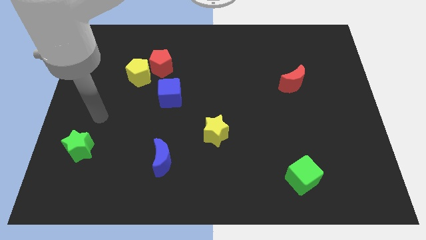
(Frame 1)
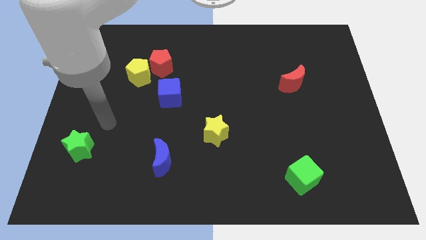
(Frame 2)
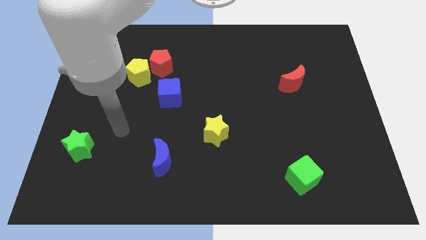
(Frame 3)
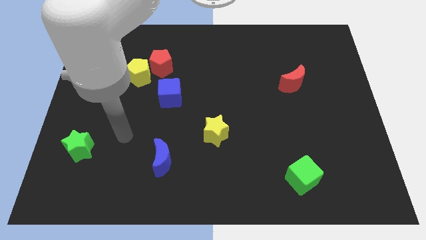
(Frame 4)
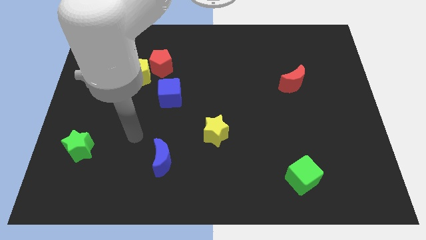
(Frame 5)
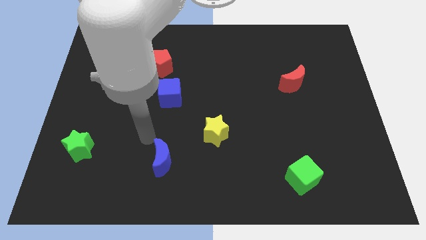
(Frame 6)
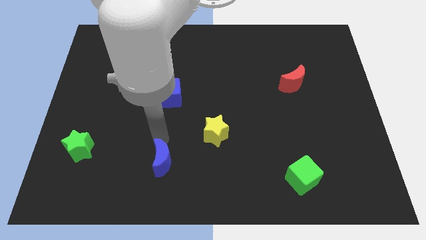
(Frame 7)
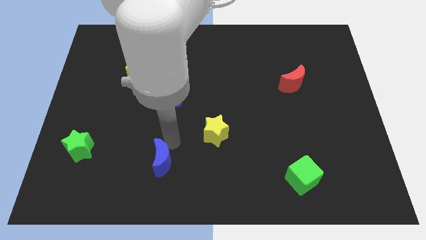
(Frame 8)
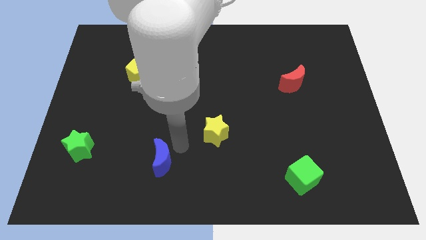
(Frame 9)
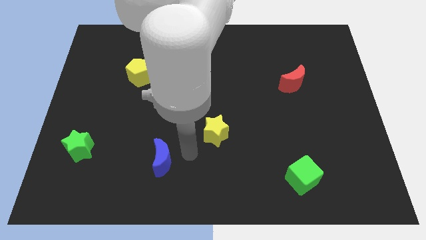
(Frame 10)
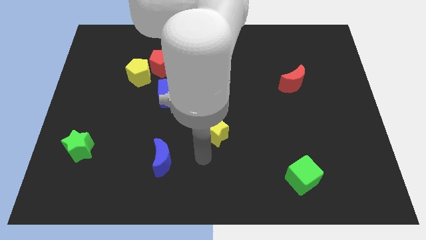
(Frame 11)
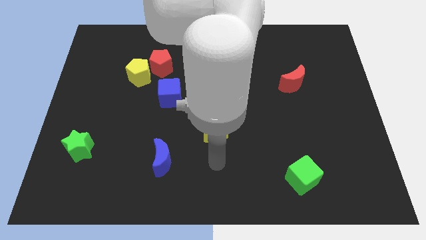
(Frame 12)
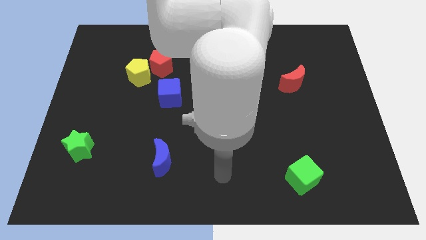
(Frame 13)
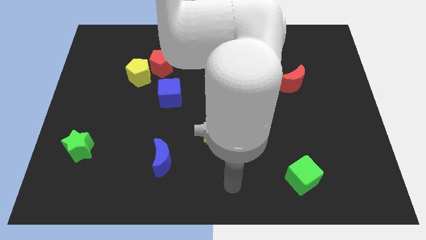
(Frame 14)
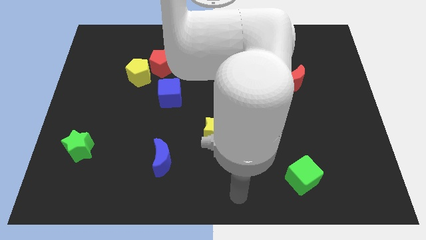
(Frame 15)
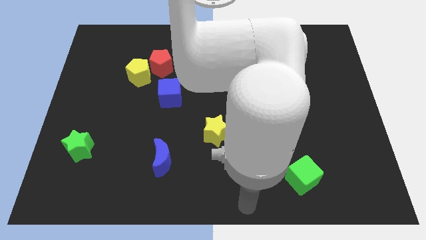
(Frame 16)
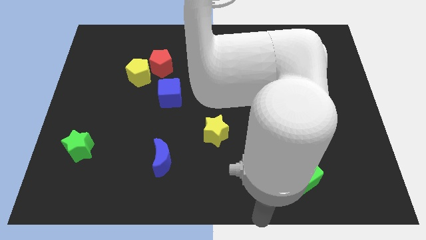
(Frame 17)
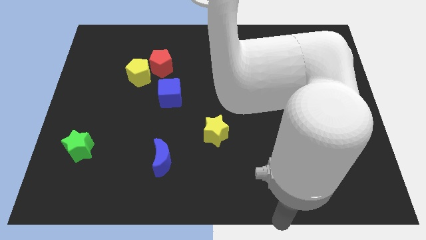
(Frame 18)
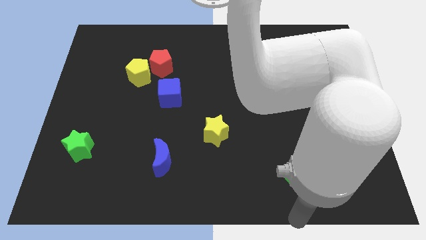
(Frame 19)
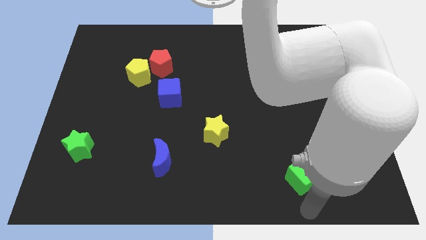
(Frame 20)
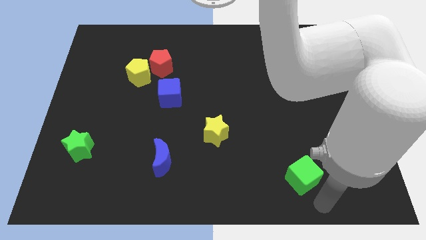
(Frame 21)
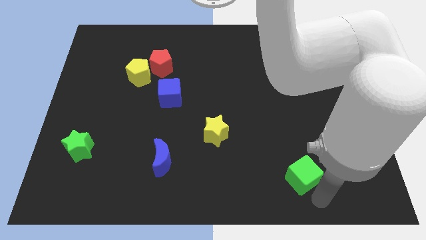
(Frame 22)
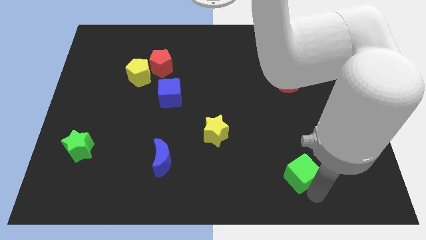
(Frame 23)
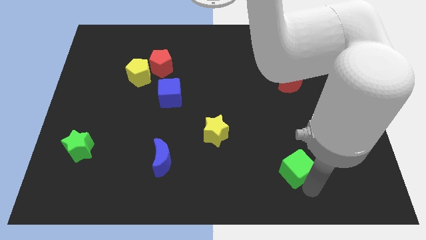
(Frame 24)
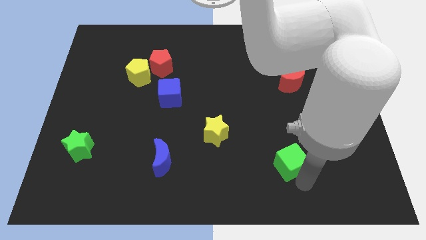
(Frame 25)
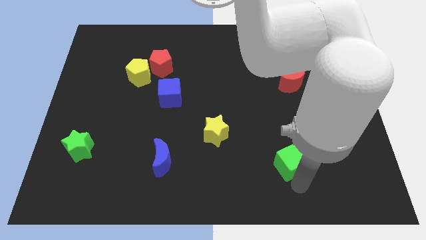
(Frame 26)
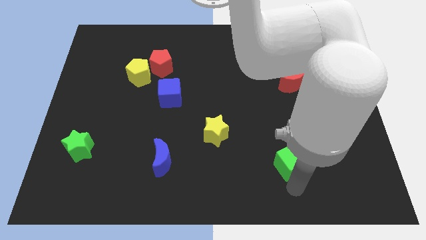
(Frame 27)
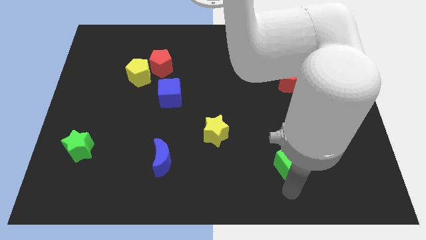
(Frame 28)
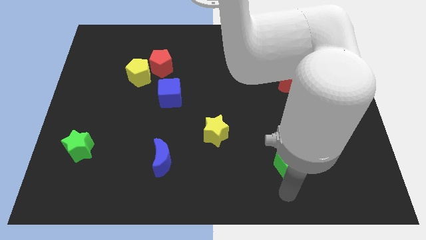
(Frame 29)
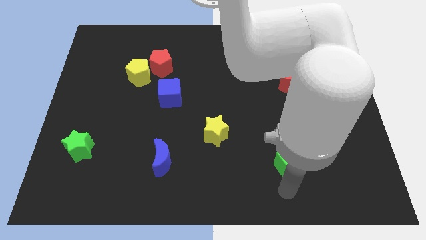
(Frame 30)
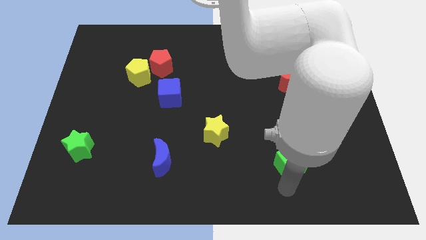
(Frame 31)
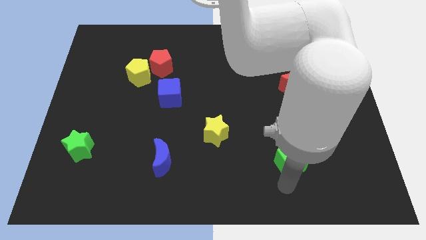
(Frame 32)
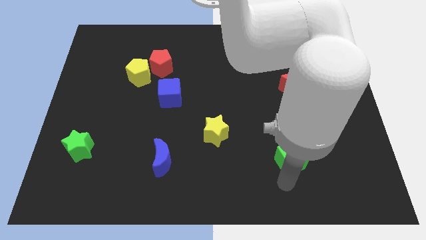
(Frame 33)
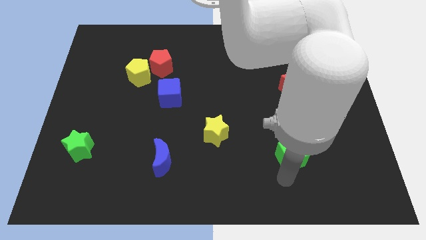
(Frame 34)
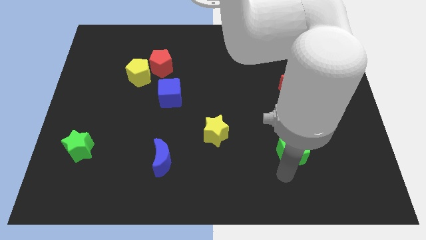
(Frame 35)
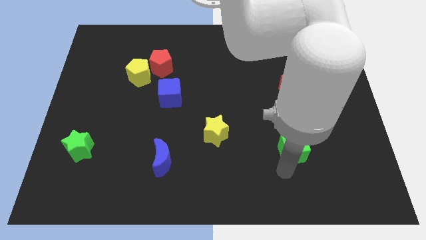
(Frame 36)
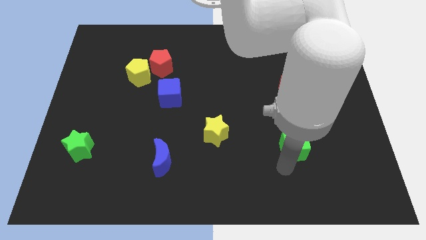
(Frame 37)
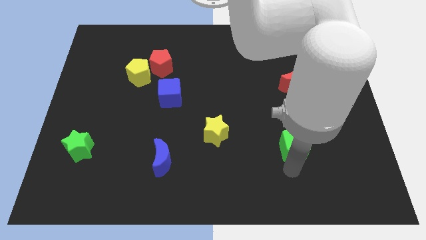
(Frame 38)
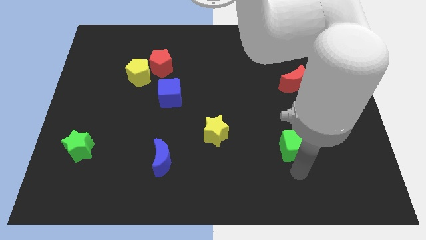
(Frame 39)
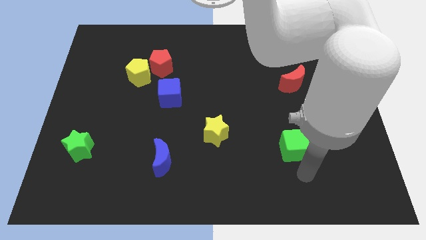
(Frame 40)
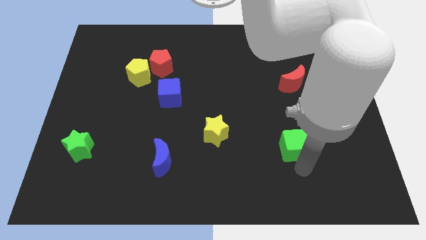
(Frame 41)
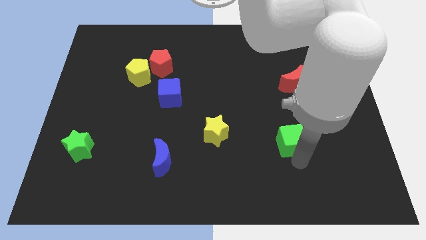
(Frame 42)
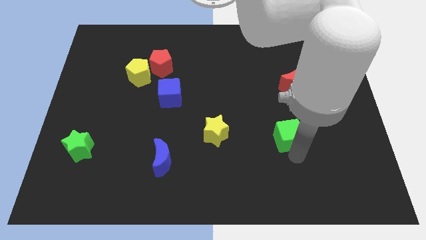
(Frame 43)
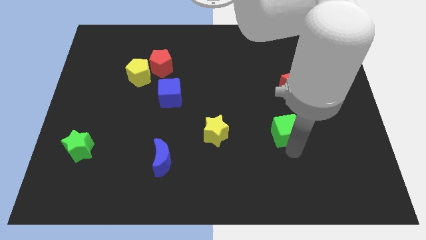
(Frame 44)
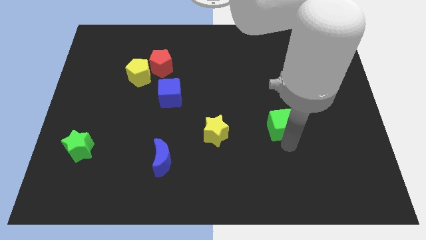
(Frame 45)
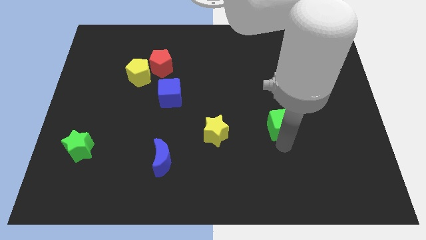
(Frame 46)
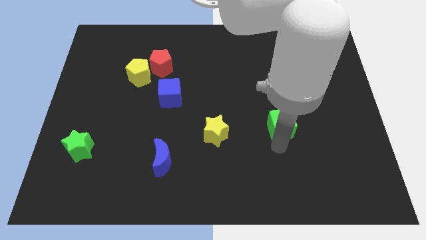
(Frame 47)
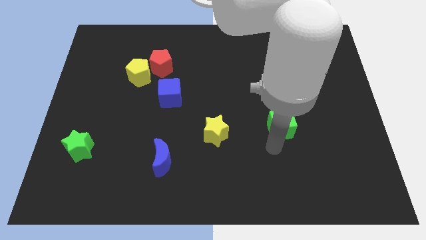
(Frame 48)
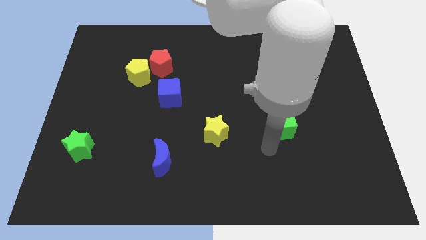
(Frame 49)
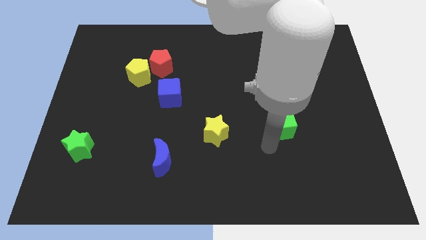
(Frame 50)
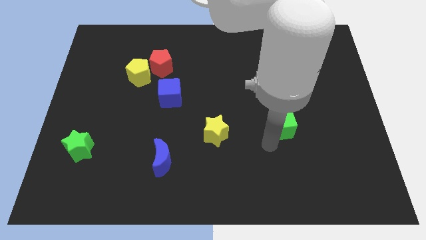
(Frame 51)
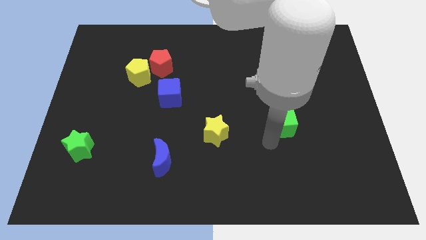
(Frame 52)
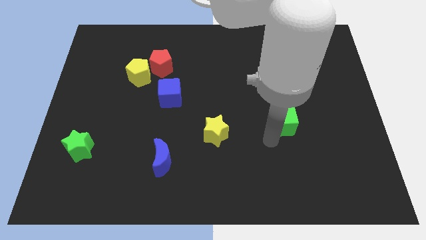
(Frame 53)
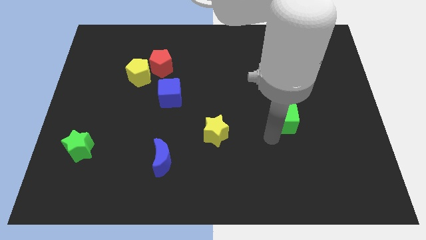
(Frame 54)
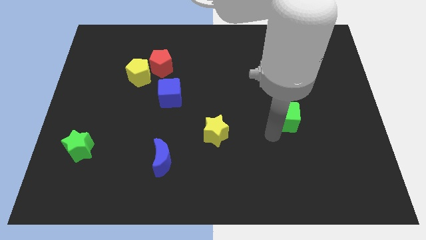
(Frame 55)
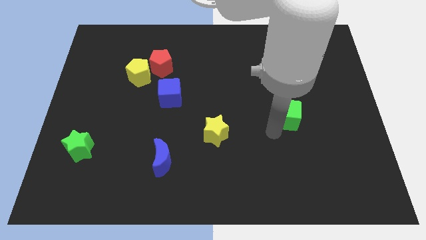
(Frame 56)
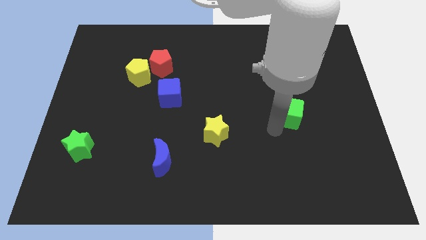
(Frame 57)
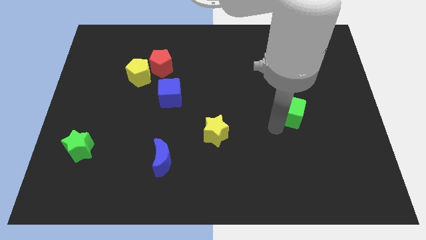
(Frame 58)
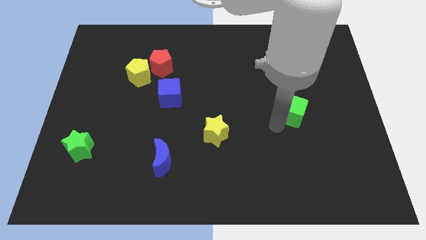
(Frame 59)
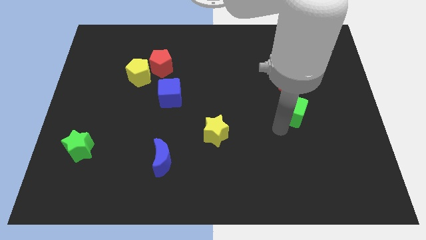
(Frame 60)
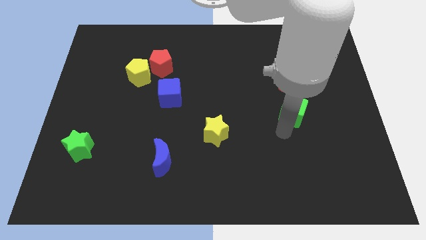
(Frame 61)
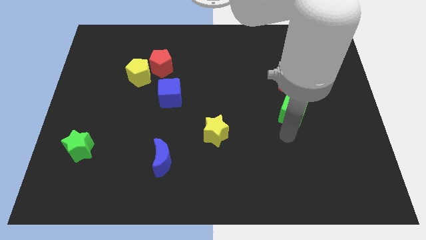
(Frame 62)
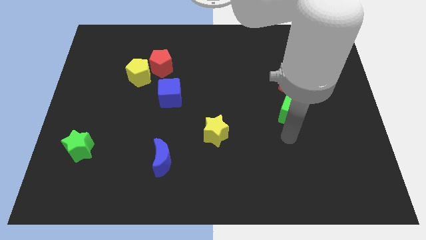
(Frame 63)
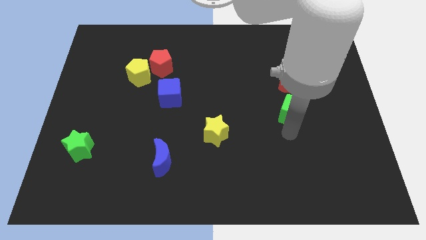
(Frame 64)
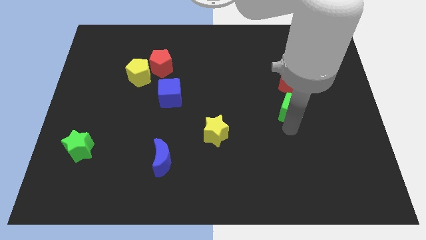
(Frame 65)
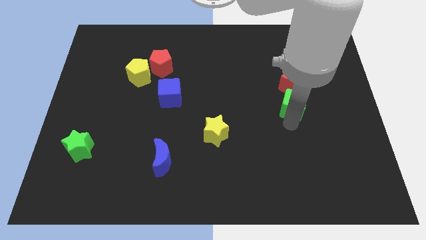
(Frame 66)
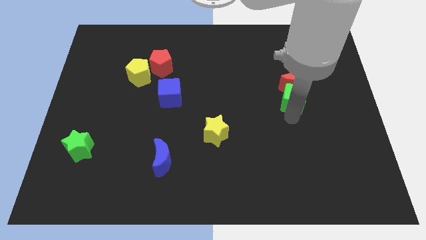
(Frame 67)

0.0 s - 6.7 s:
move the green cube close to the red moon
